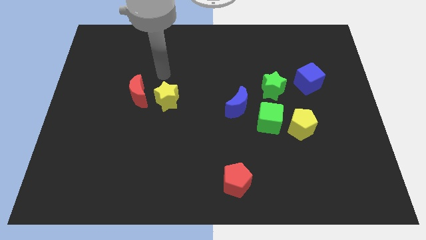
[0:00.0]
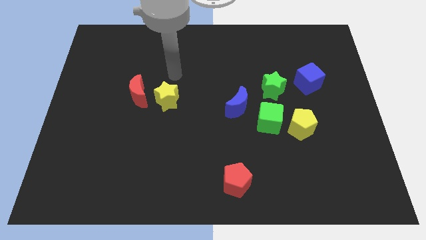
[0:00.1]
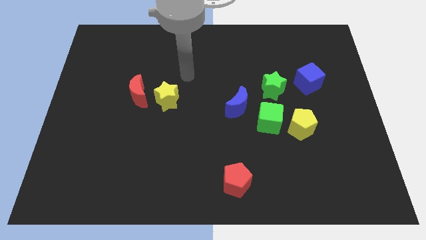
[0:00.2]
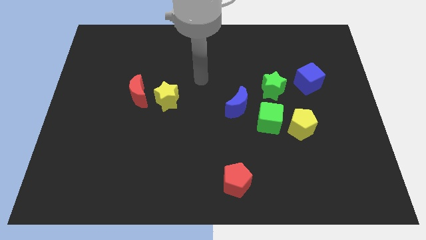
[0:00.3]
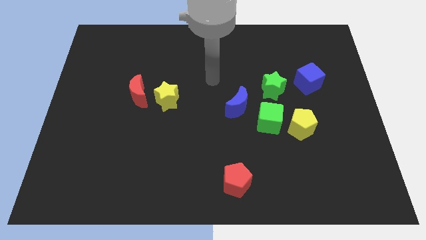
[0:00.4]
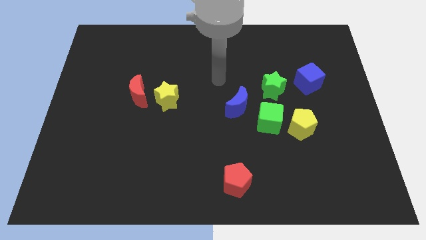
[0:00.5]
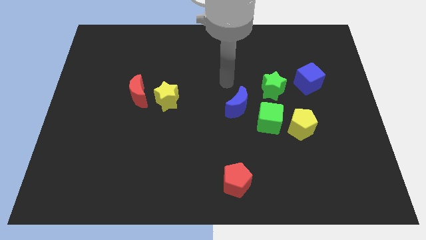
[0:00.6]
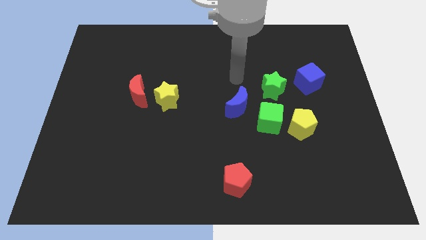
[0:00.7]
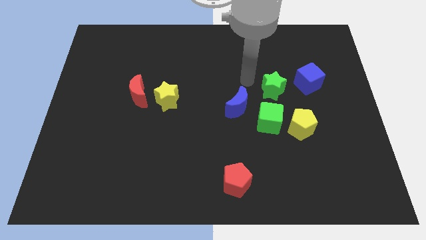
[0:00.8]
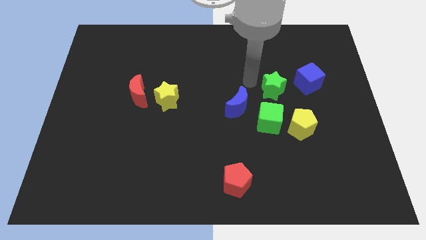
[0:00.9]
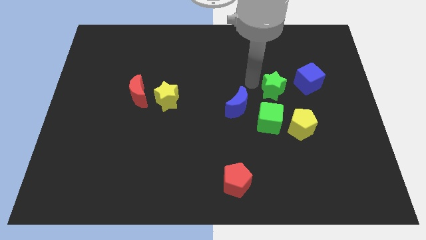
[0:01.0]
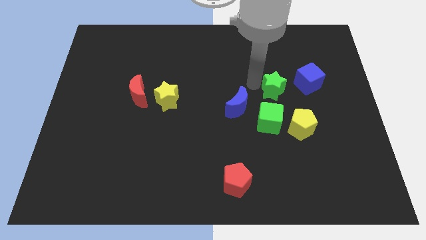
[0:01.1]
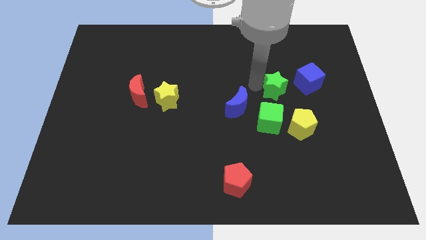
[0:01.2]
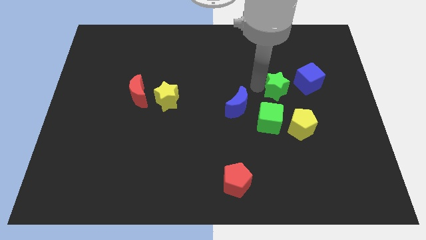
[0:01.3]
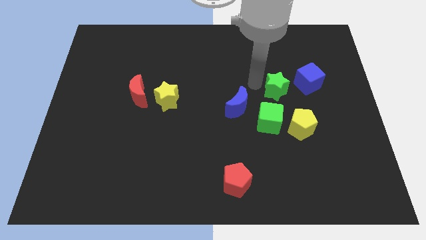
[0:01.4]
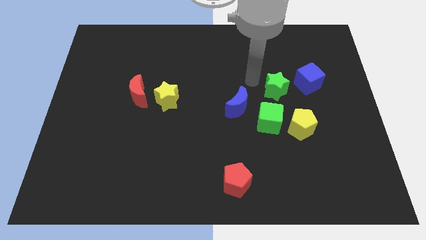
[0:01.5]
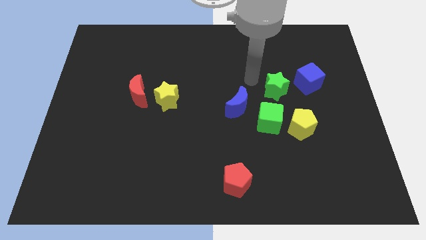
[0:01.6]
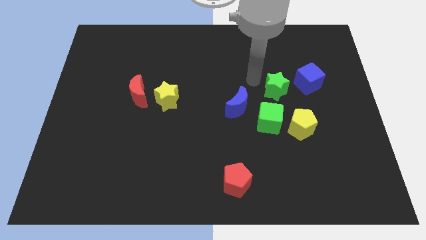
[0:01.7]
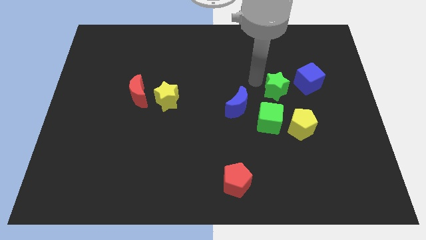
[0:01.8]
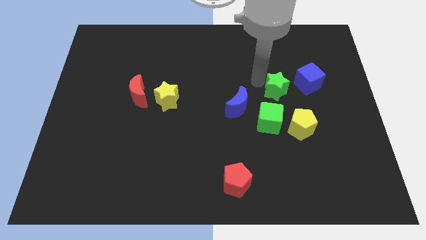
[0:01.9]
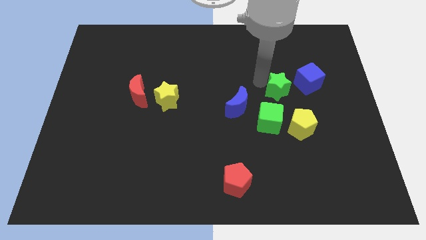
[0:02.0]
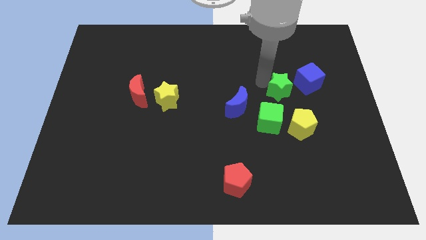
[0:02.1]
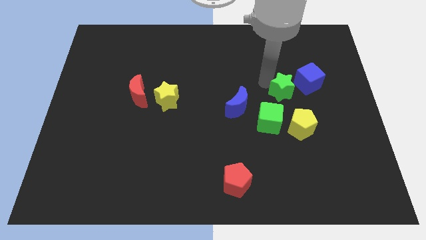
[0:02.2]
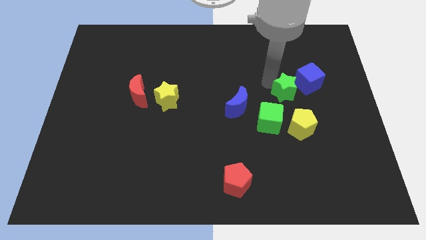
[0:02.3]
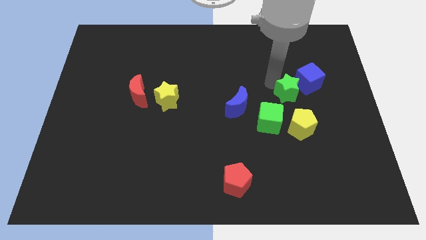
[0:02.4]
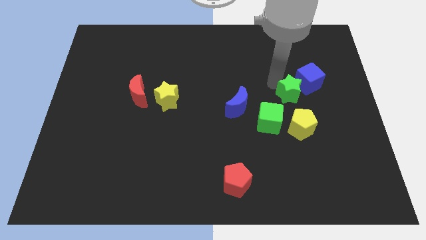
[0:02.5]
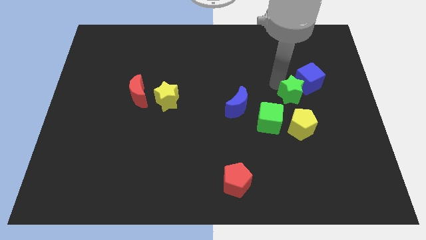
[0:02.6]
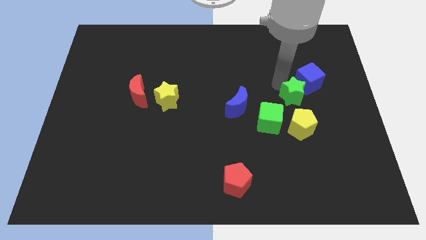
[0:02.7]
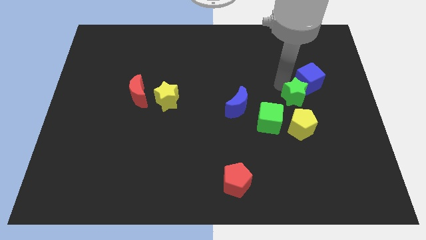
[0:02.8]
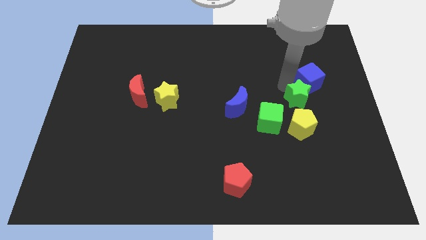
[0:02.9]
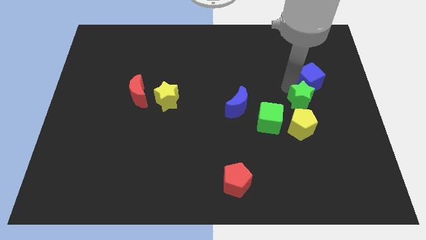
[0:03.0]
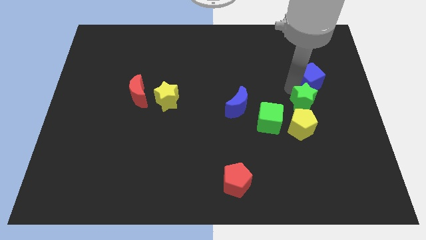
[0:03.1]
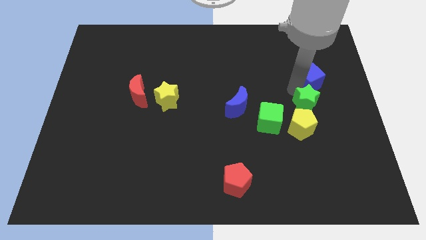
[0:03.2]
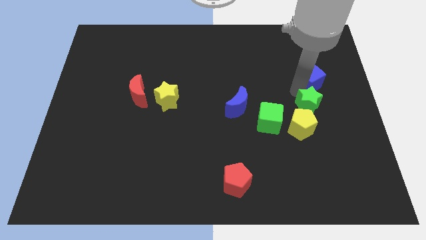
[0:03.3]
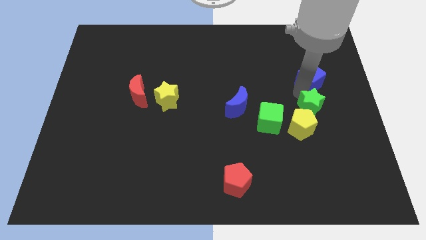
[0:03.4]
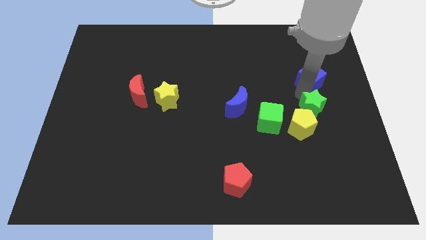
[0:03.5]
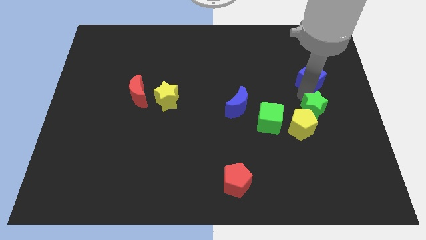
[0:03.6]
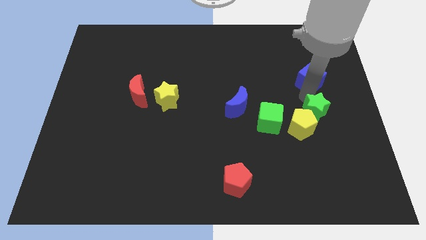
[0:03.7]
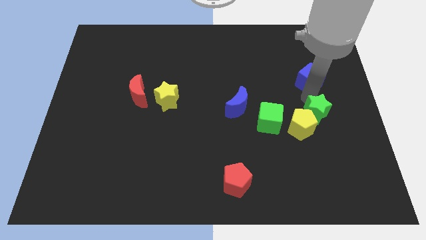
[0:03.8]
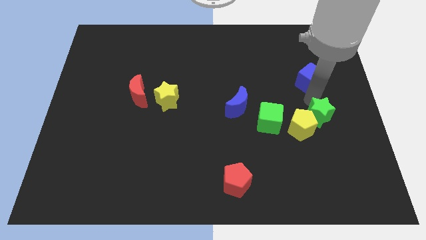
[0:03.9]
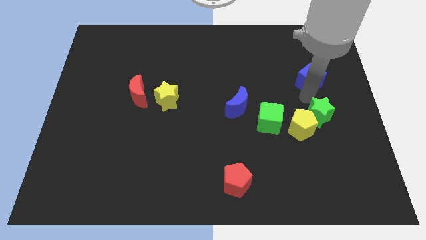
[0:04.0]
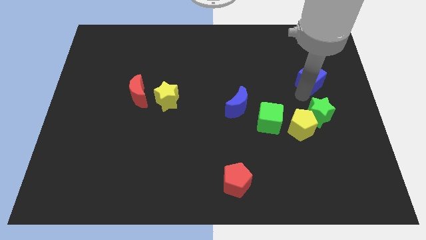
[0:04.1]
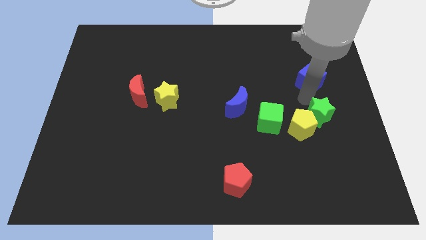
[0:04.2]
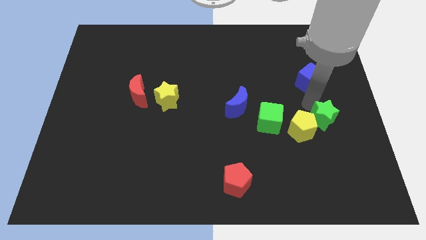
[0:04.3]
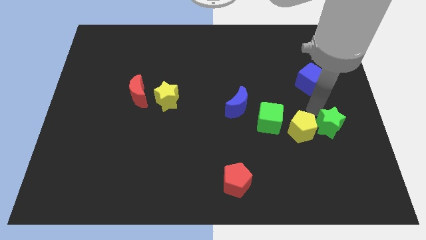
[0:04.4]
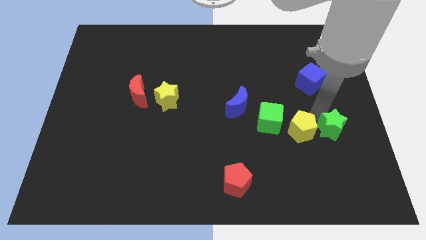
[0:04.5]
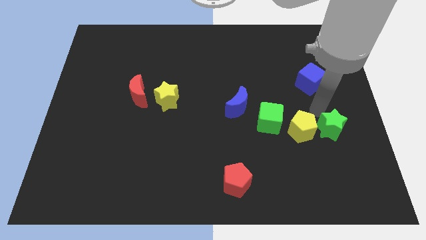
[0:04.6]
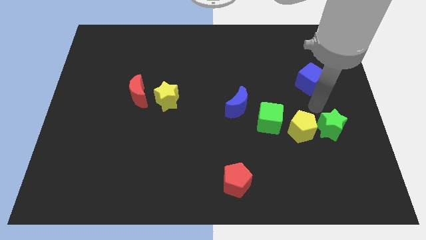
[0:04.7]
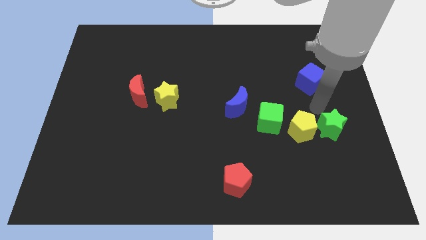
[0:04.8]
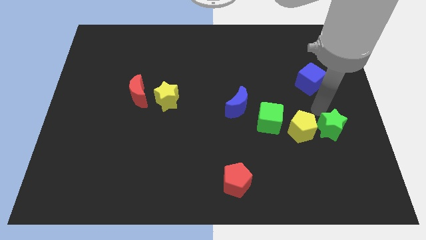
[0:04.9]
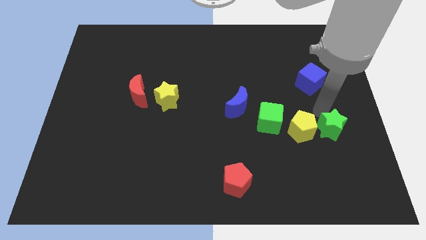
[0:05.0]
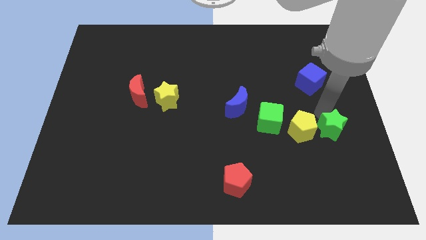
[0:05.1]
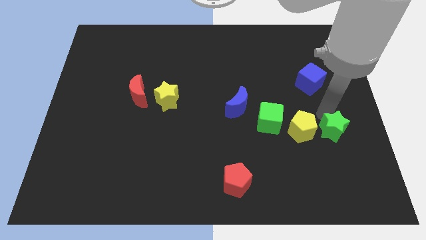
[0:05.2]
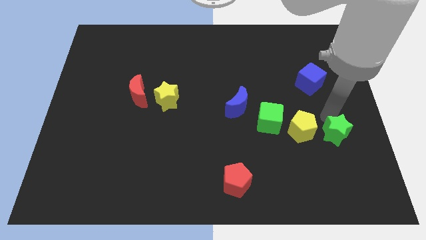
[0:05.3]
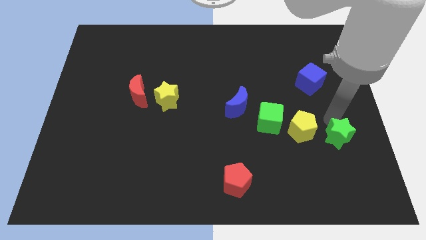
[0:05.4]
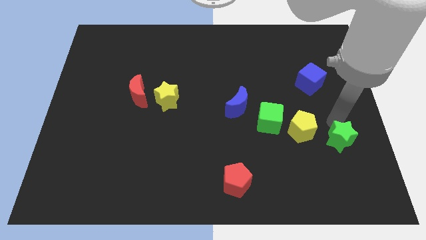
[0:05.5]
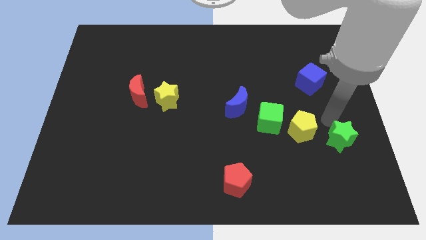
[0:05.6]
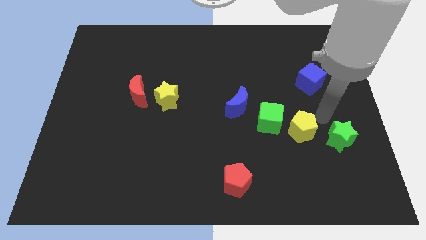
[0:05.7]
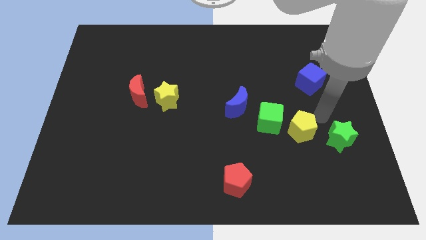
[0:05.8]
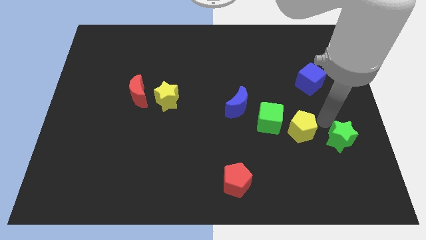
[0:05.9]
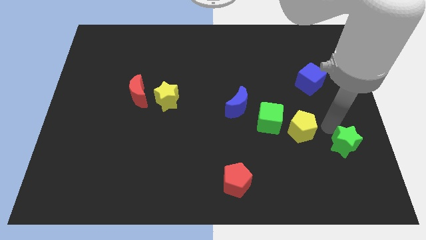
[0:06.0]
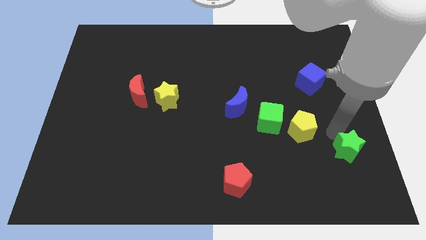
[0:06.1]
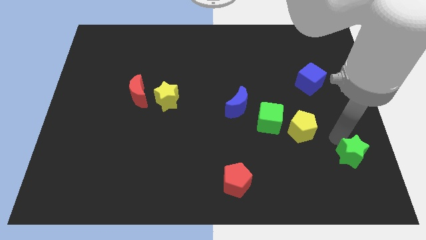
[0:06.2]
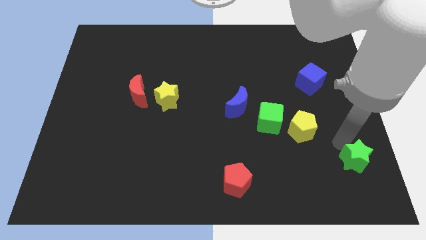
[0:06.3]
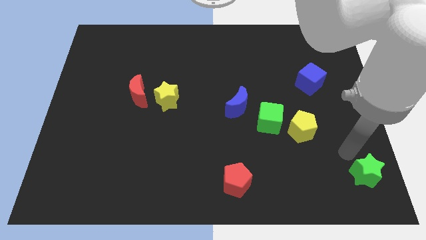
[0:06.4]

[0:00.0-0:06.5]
slide the green star to the bottom right corner

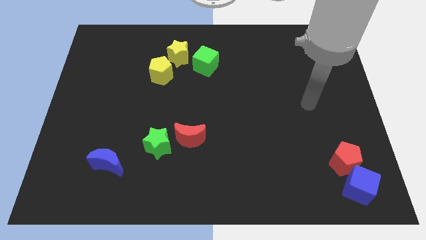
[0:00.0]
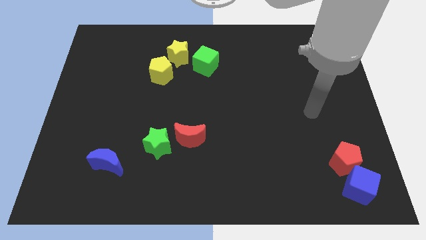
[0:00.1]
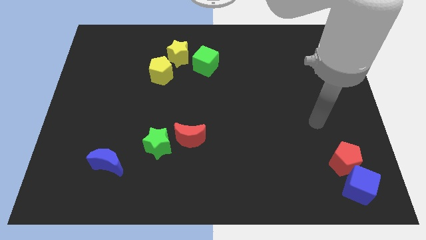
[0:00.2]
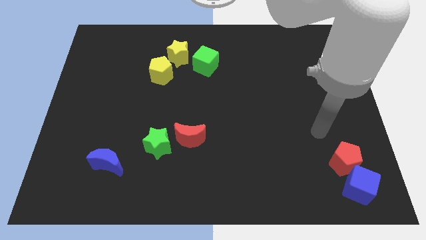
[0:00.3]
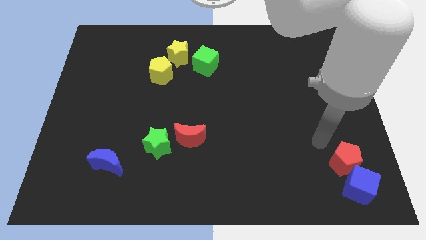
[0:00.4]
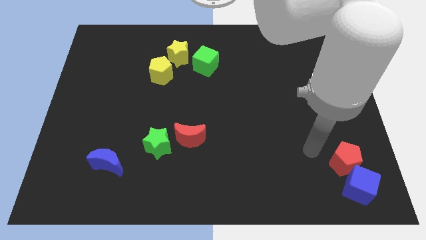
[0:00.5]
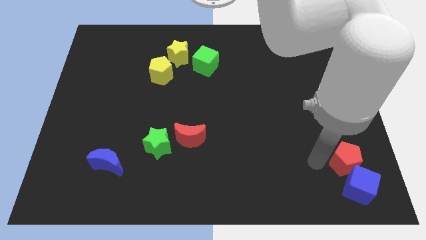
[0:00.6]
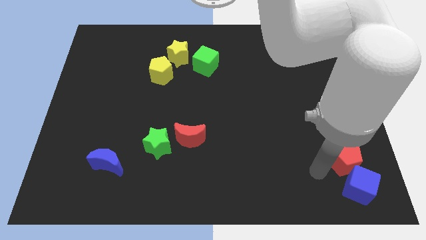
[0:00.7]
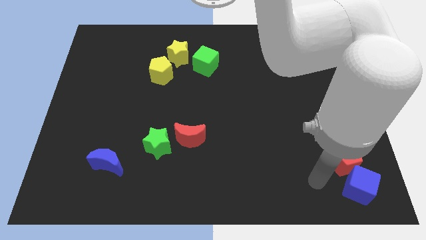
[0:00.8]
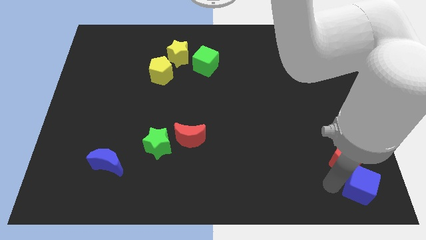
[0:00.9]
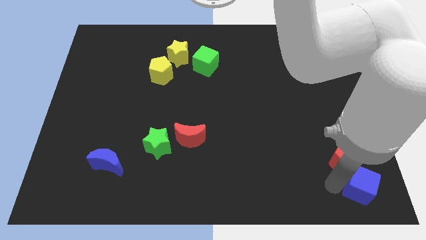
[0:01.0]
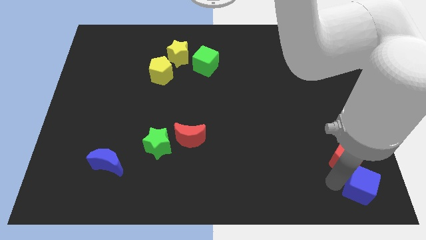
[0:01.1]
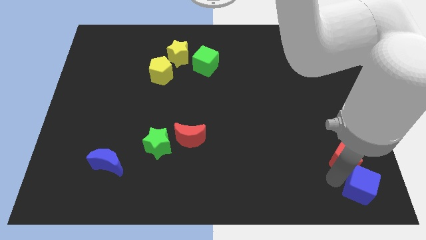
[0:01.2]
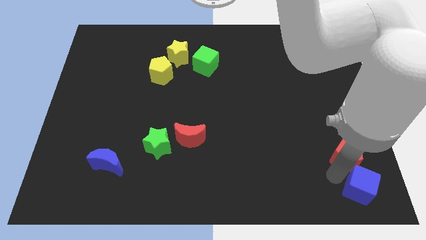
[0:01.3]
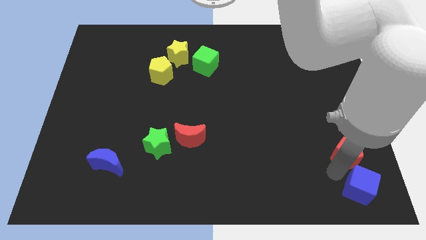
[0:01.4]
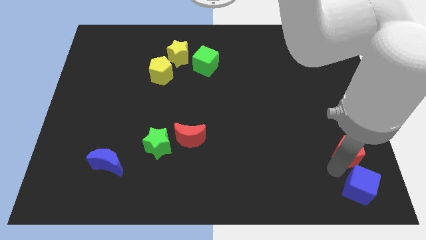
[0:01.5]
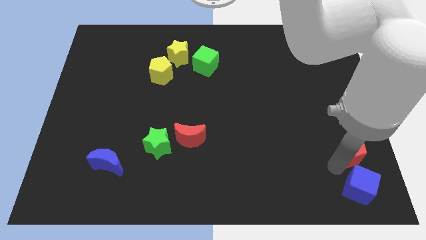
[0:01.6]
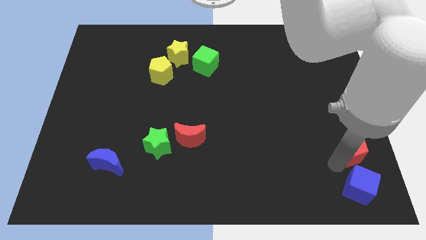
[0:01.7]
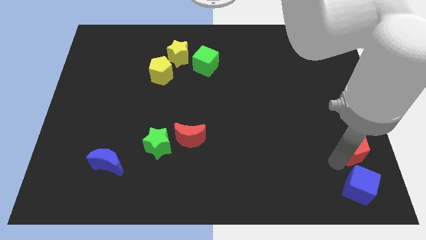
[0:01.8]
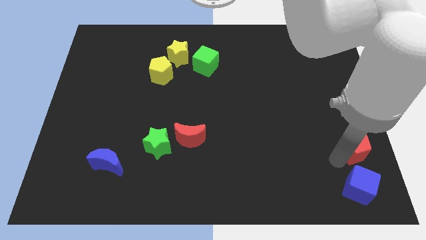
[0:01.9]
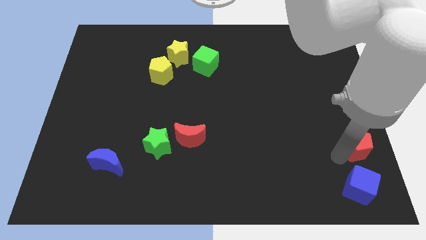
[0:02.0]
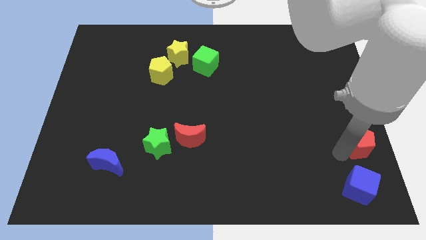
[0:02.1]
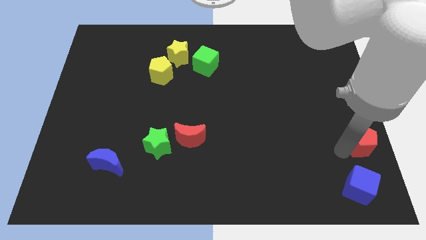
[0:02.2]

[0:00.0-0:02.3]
move the red pentagon to the right side of the board
